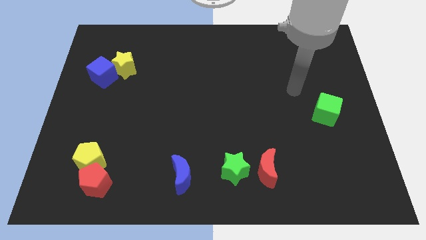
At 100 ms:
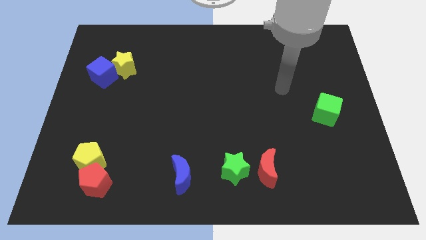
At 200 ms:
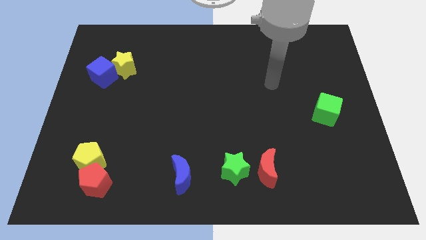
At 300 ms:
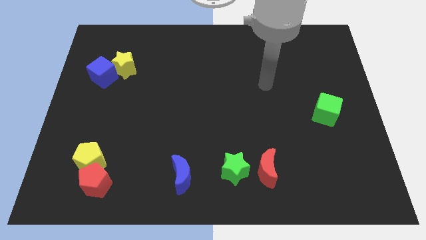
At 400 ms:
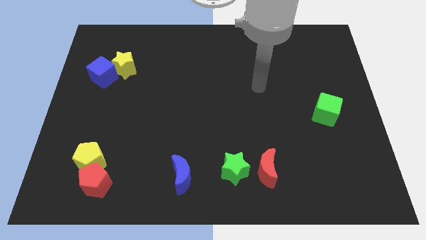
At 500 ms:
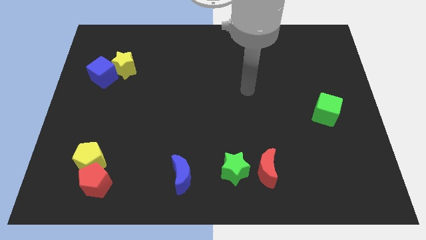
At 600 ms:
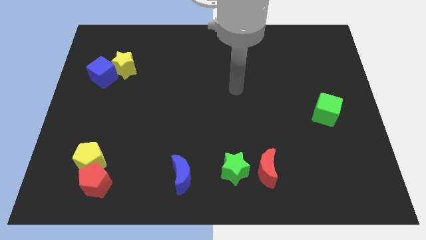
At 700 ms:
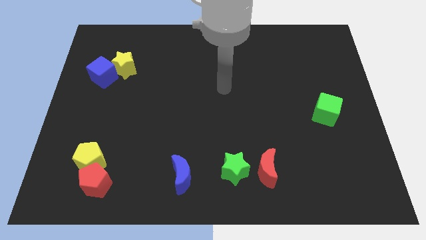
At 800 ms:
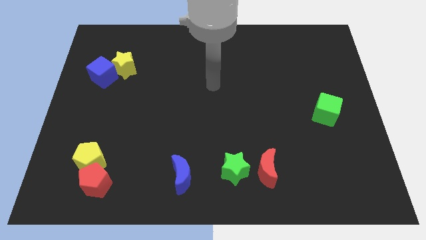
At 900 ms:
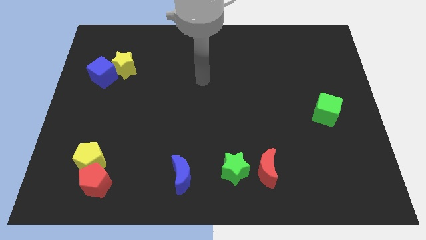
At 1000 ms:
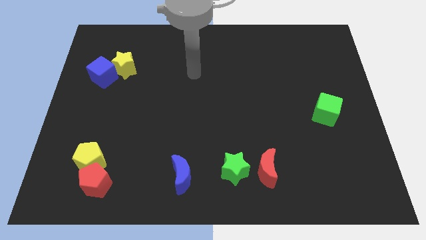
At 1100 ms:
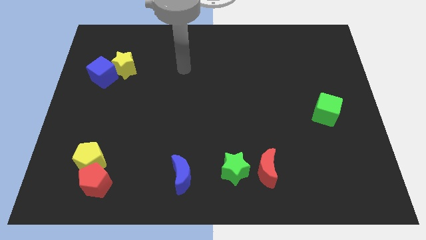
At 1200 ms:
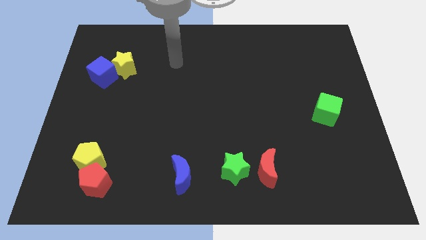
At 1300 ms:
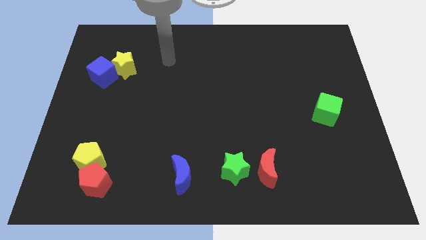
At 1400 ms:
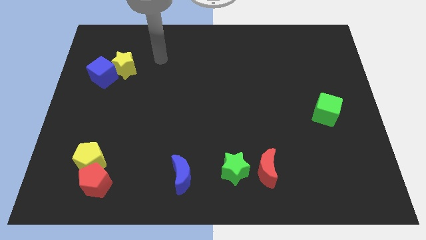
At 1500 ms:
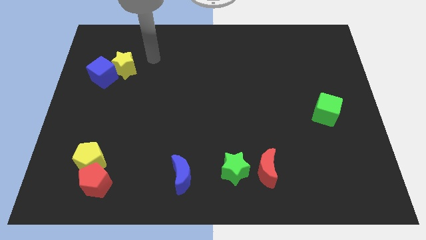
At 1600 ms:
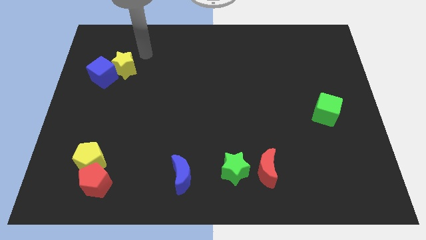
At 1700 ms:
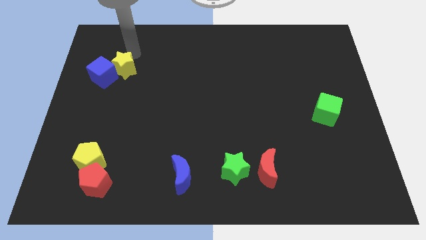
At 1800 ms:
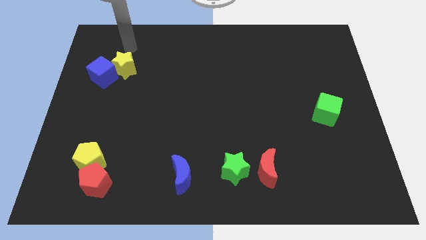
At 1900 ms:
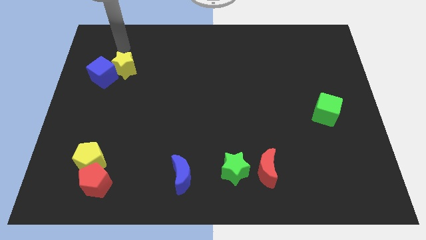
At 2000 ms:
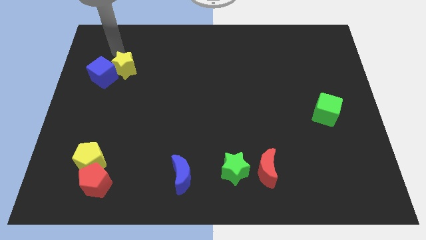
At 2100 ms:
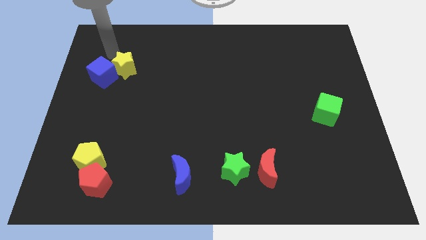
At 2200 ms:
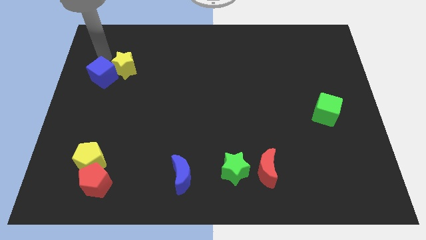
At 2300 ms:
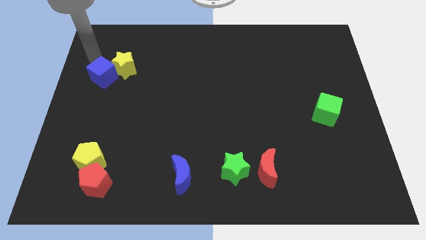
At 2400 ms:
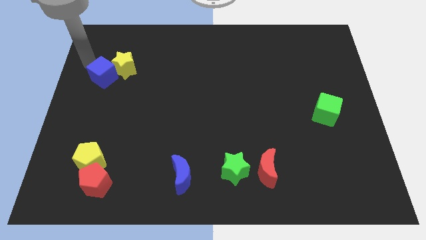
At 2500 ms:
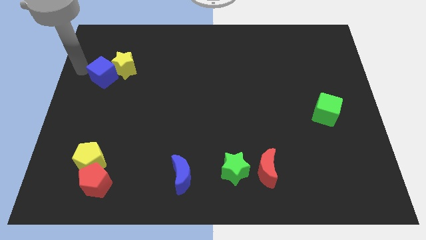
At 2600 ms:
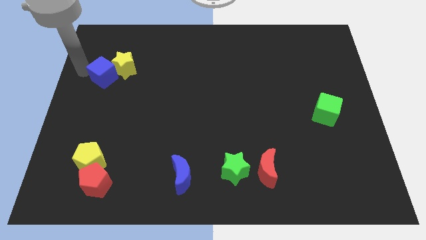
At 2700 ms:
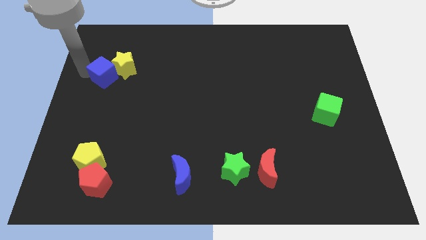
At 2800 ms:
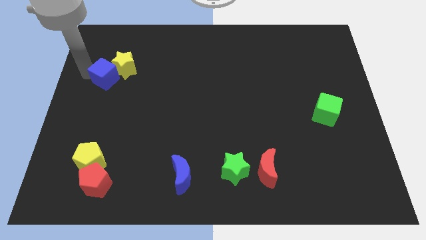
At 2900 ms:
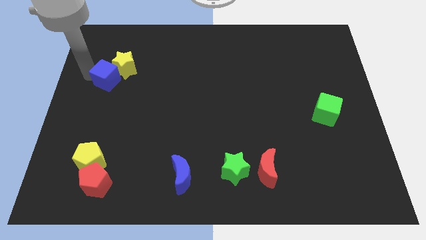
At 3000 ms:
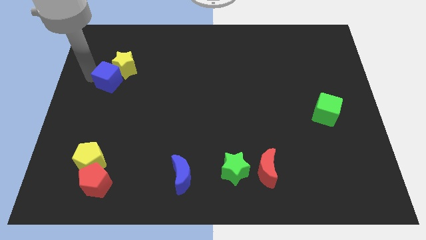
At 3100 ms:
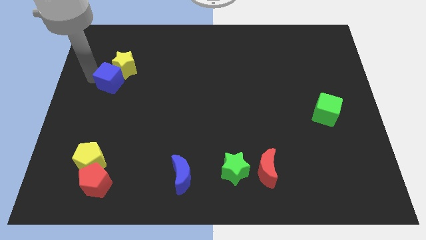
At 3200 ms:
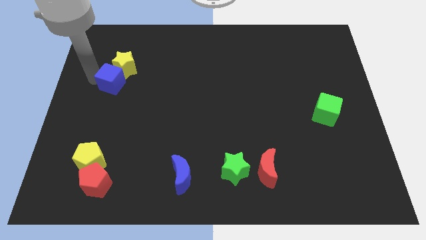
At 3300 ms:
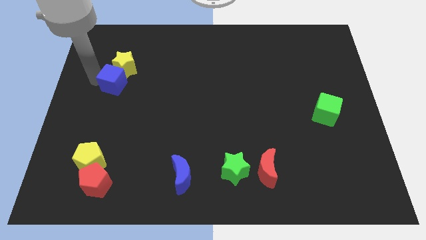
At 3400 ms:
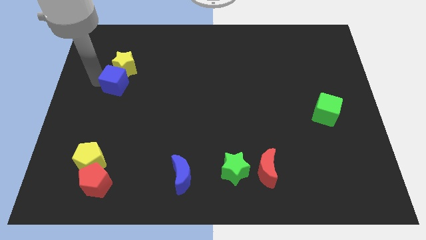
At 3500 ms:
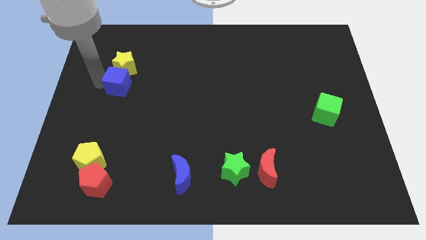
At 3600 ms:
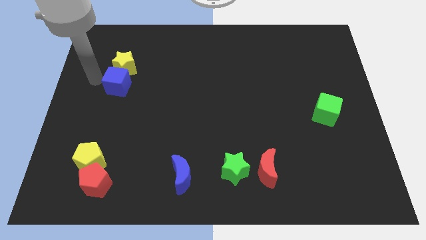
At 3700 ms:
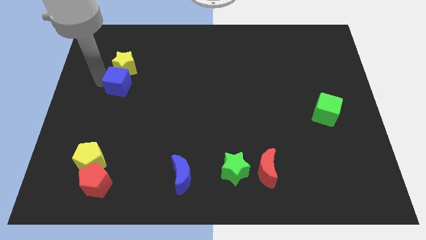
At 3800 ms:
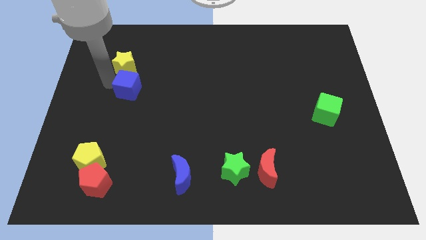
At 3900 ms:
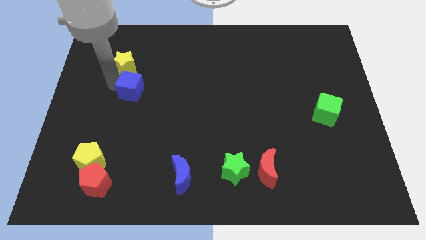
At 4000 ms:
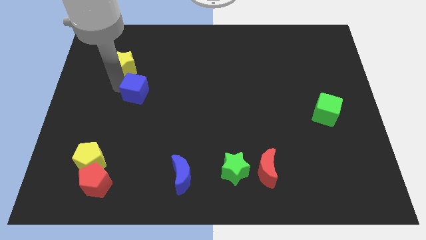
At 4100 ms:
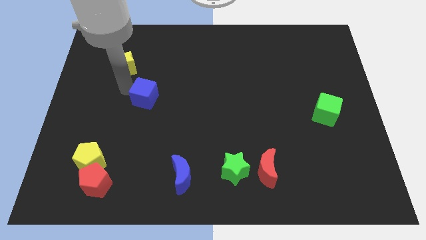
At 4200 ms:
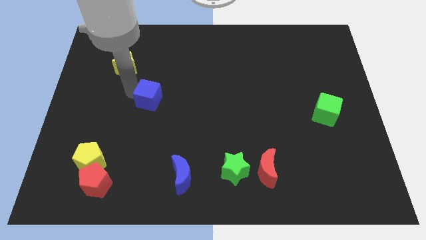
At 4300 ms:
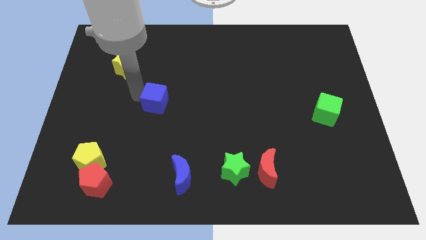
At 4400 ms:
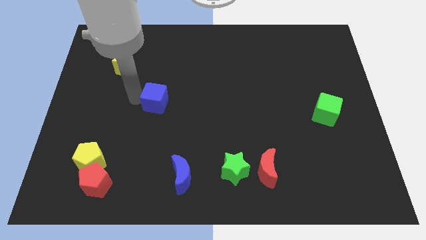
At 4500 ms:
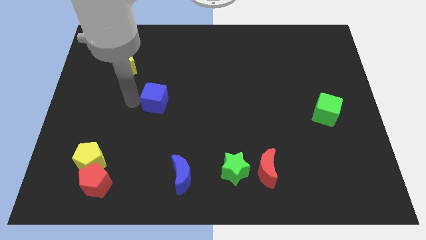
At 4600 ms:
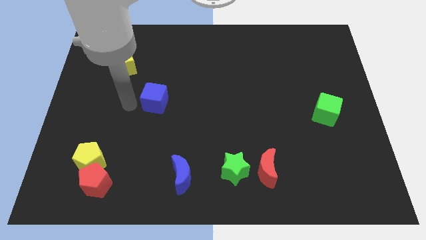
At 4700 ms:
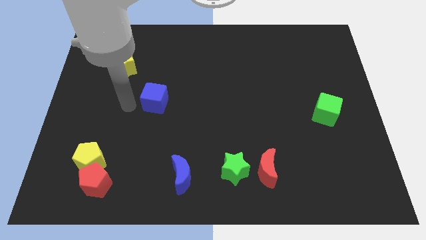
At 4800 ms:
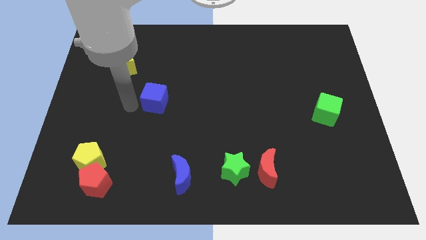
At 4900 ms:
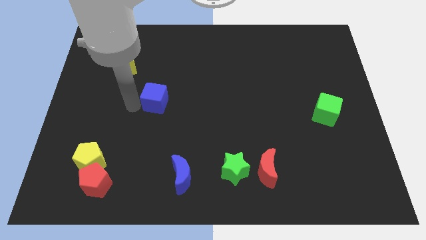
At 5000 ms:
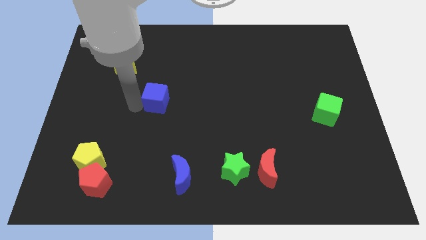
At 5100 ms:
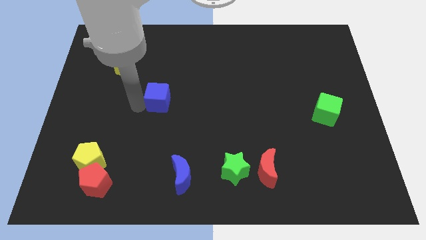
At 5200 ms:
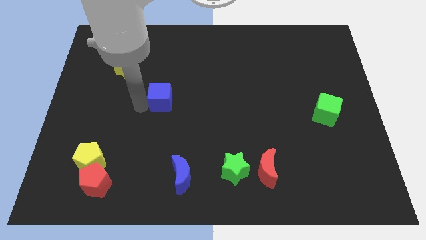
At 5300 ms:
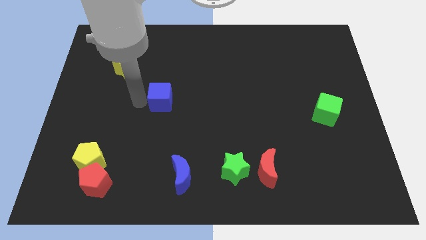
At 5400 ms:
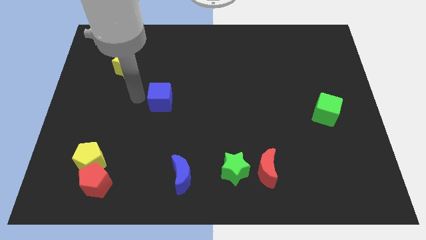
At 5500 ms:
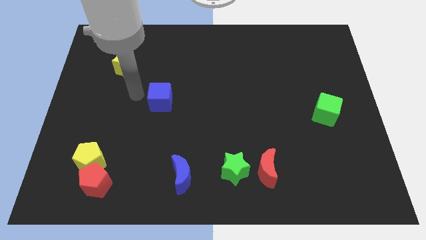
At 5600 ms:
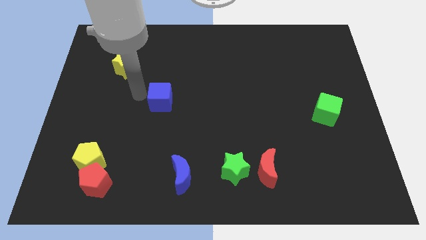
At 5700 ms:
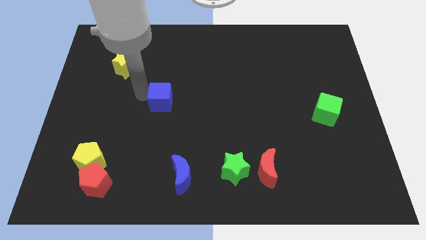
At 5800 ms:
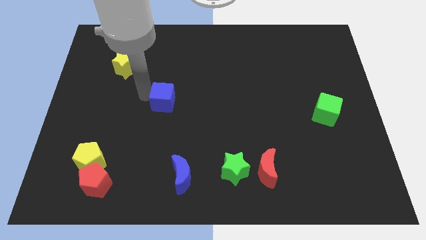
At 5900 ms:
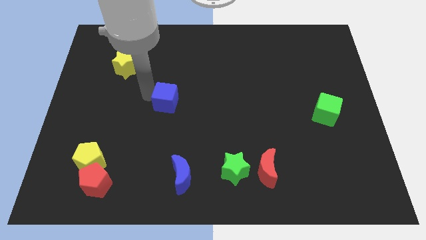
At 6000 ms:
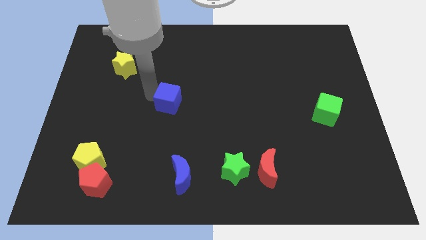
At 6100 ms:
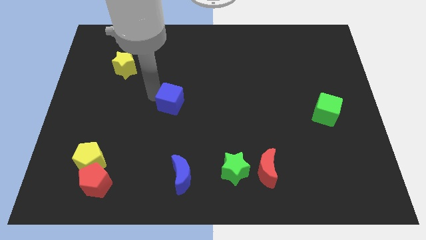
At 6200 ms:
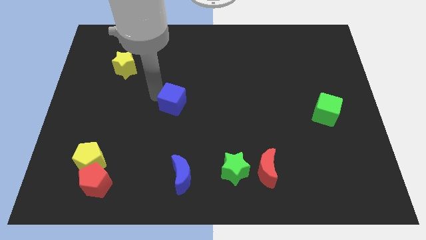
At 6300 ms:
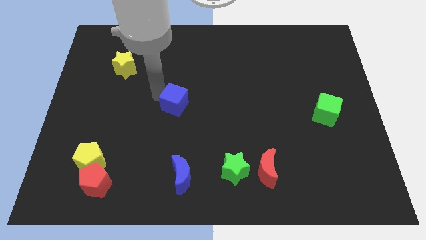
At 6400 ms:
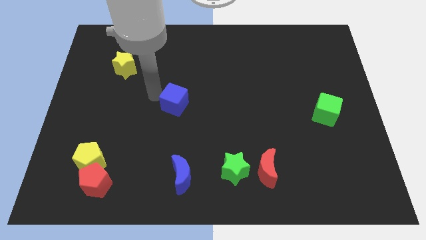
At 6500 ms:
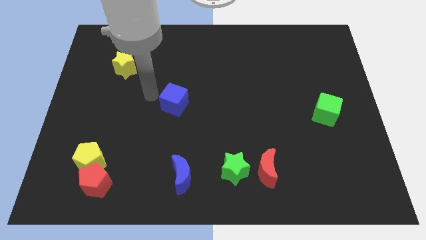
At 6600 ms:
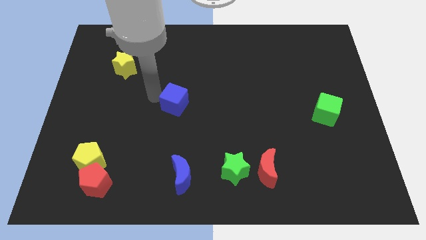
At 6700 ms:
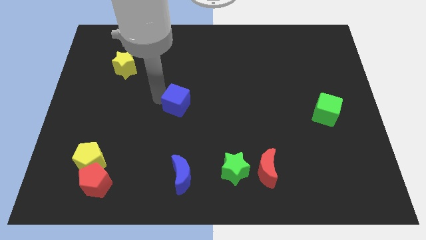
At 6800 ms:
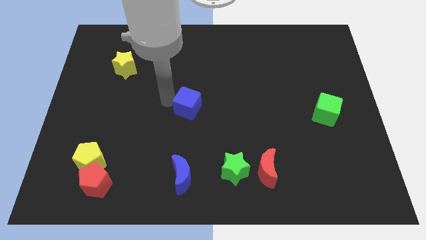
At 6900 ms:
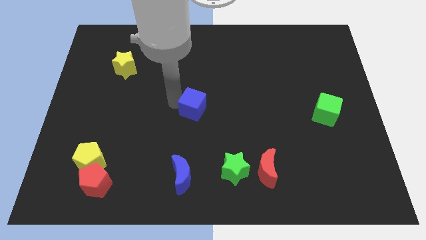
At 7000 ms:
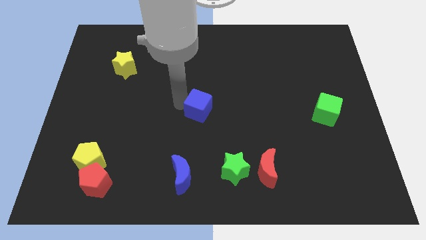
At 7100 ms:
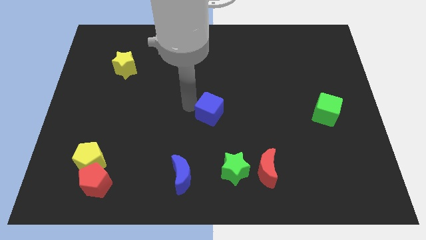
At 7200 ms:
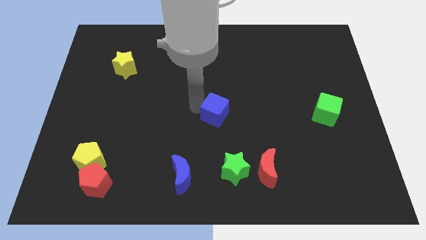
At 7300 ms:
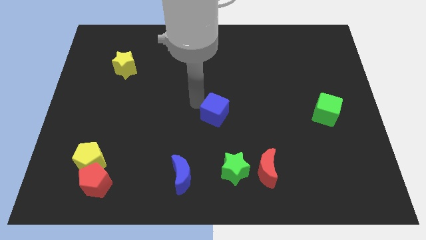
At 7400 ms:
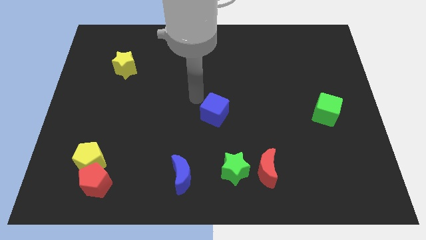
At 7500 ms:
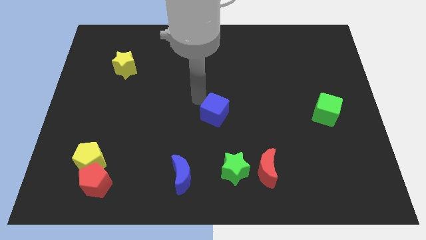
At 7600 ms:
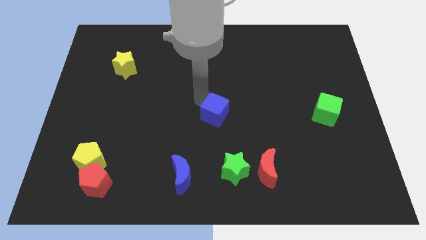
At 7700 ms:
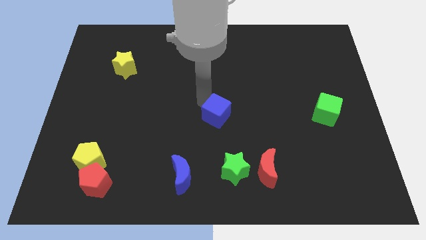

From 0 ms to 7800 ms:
put the blue cube above the green star
